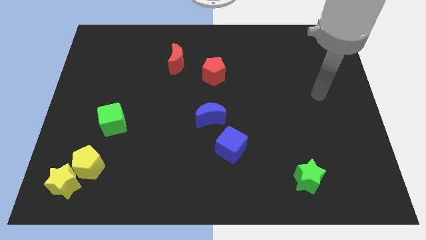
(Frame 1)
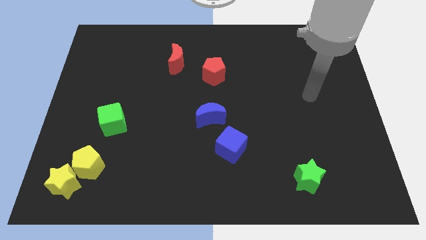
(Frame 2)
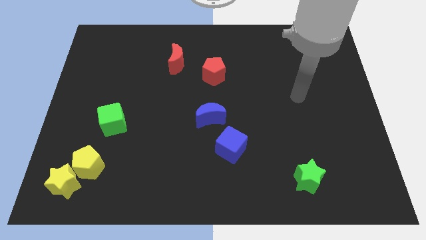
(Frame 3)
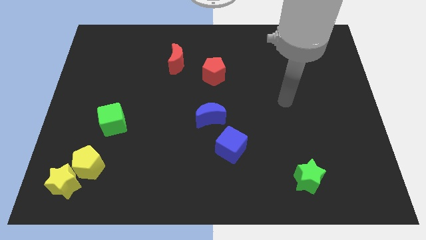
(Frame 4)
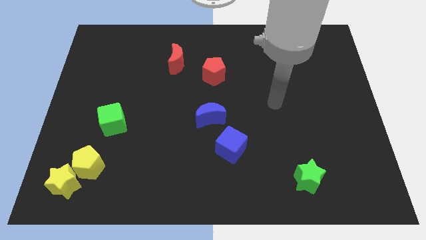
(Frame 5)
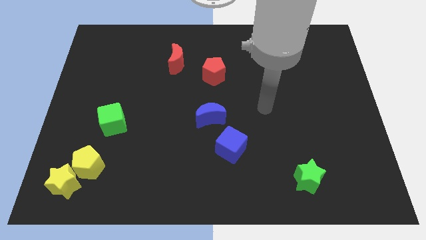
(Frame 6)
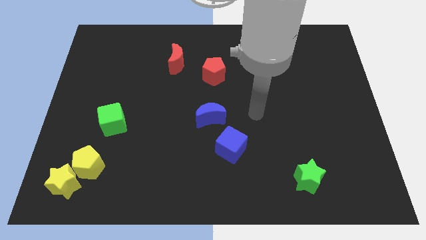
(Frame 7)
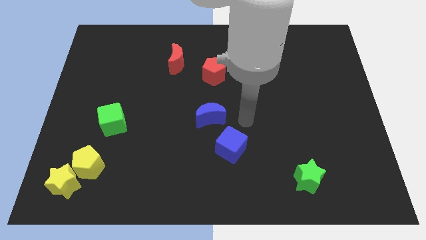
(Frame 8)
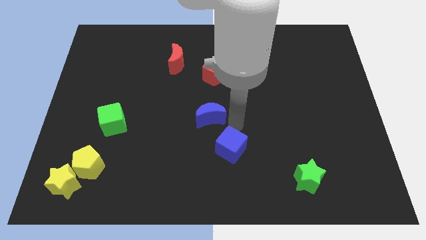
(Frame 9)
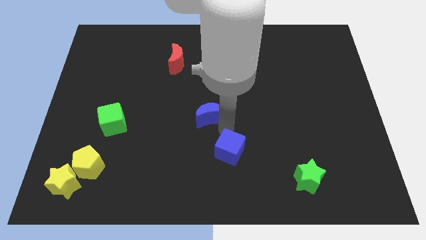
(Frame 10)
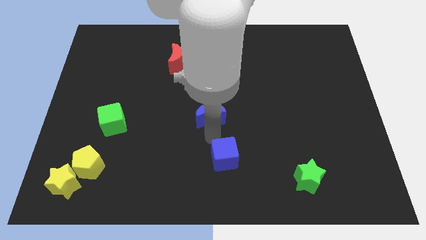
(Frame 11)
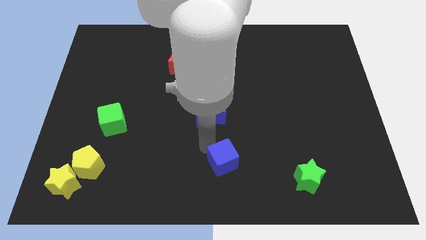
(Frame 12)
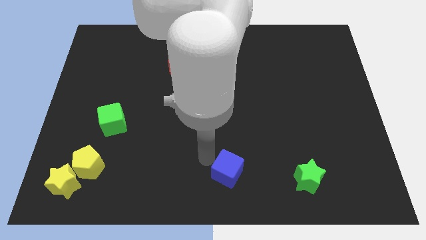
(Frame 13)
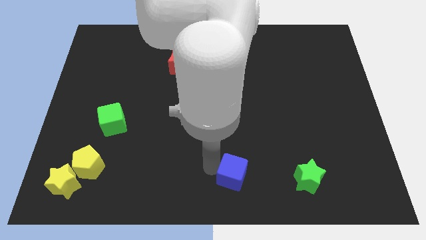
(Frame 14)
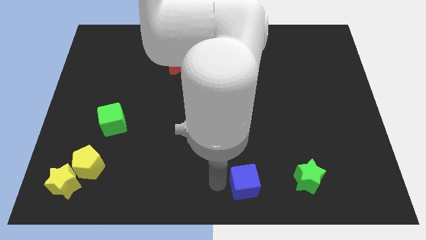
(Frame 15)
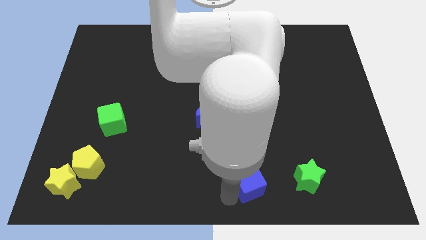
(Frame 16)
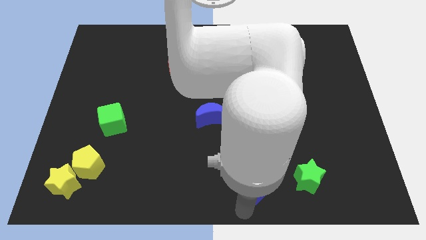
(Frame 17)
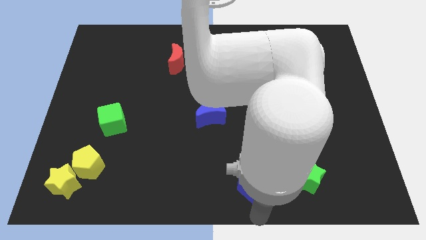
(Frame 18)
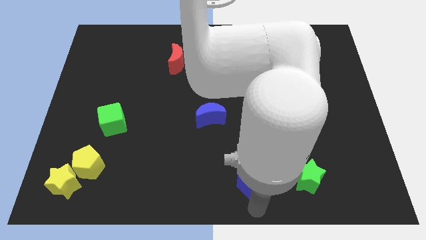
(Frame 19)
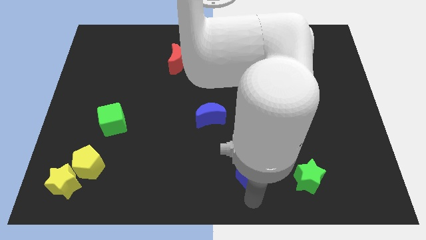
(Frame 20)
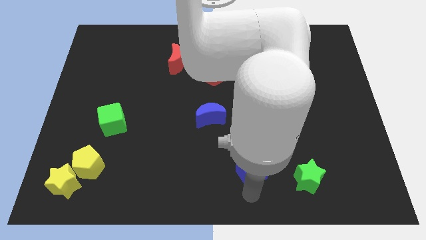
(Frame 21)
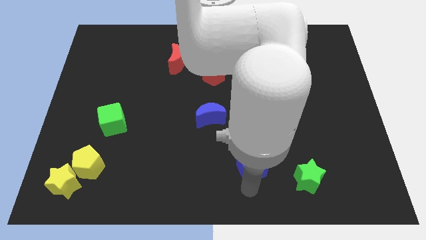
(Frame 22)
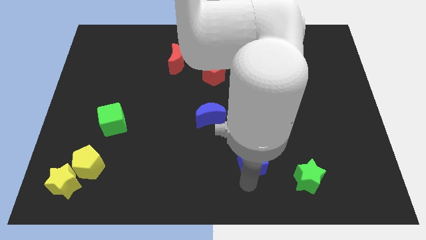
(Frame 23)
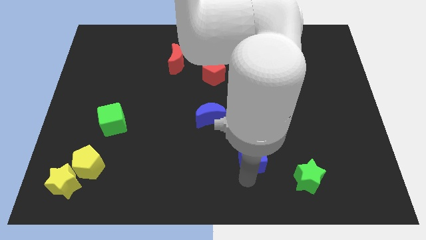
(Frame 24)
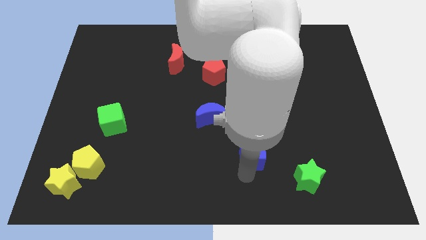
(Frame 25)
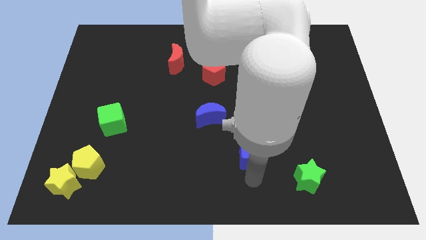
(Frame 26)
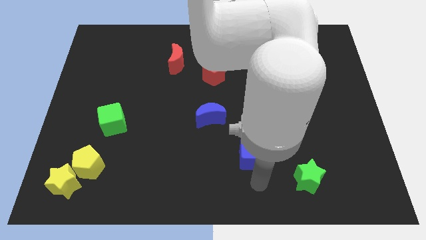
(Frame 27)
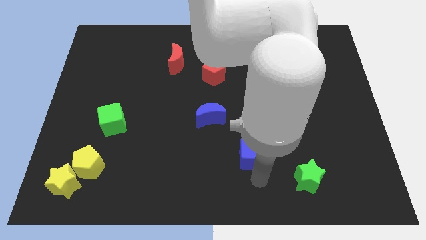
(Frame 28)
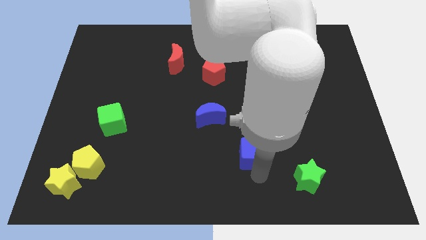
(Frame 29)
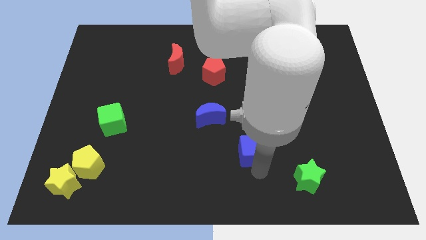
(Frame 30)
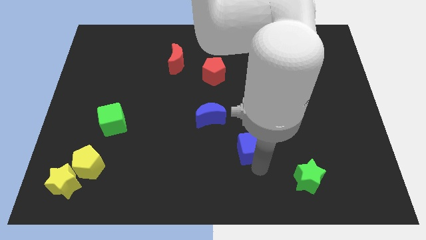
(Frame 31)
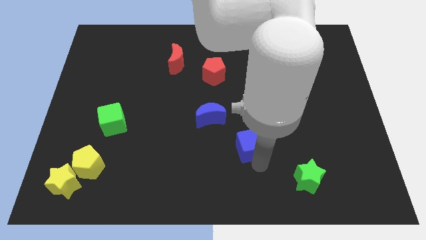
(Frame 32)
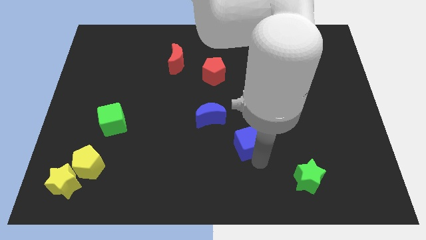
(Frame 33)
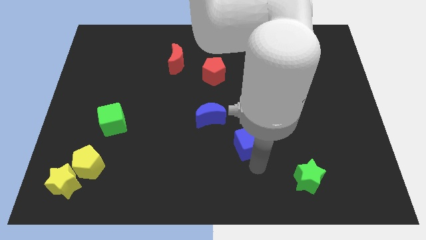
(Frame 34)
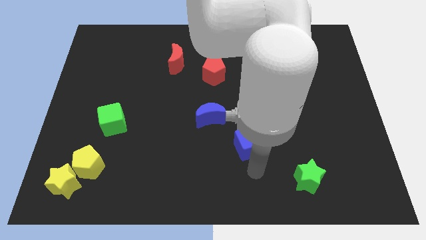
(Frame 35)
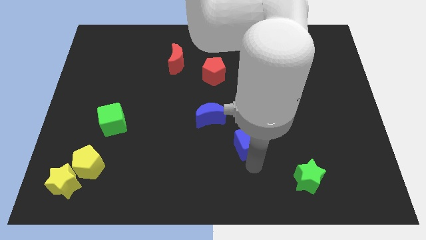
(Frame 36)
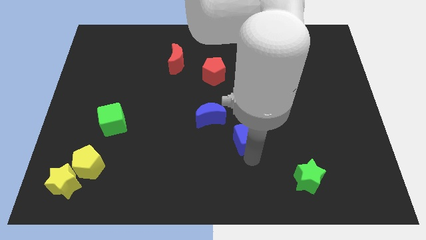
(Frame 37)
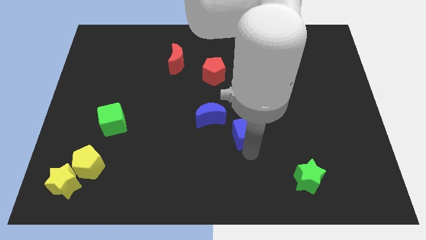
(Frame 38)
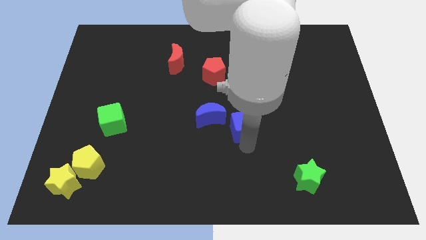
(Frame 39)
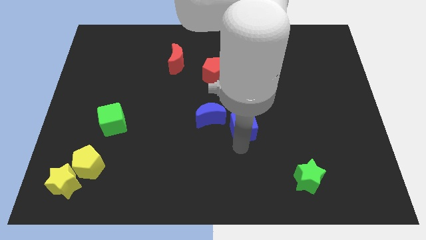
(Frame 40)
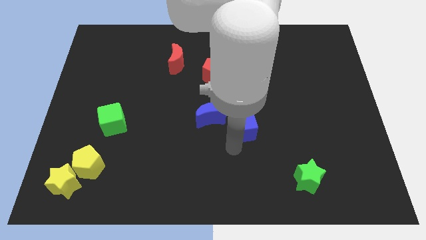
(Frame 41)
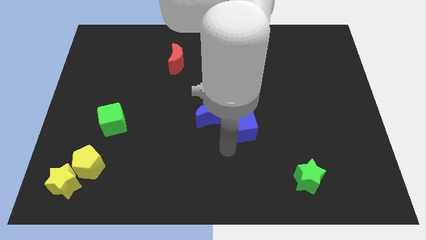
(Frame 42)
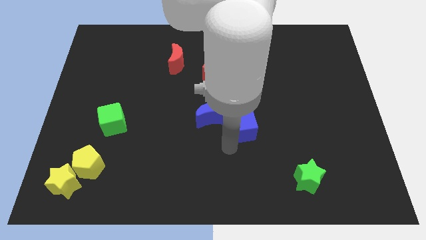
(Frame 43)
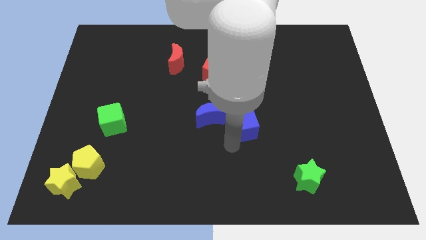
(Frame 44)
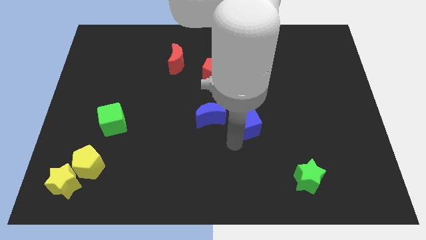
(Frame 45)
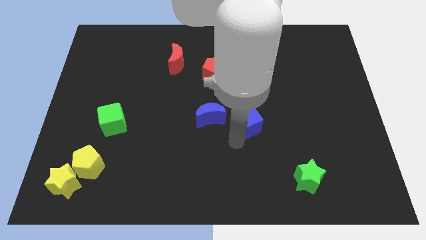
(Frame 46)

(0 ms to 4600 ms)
push the blue cube diagonally upwards and to the right slightly

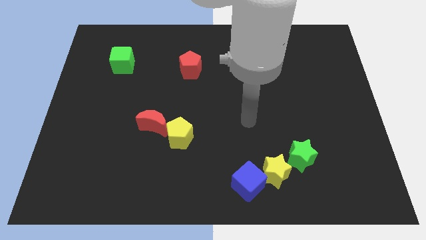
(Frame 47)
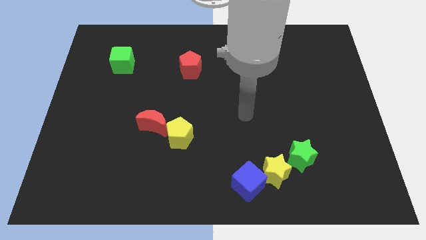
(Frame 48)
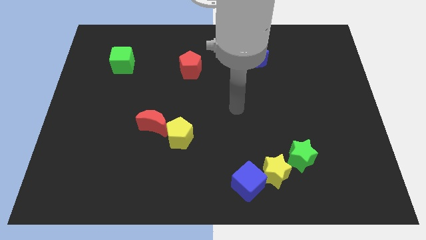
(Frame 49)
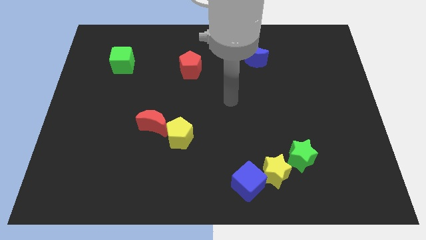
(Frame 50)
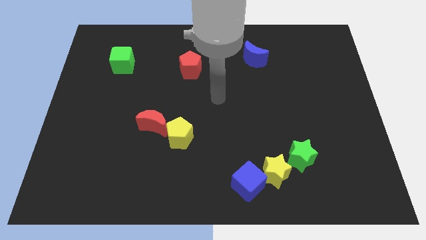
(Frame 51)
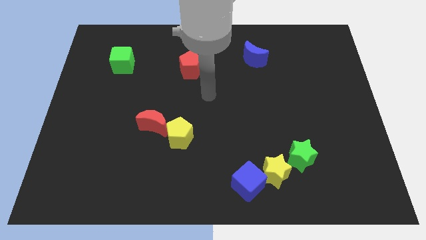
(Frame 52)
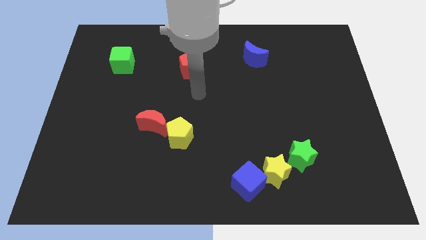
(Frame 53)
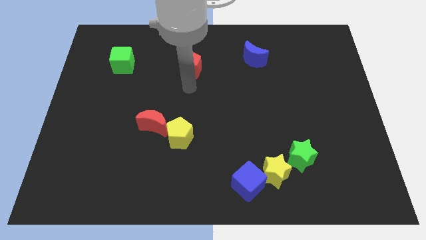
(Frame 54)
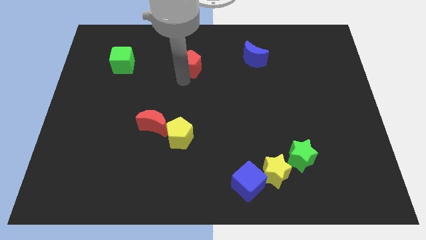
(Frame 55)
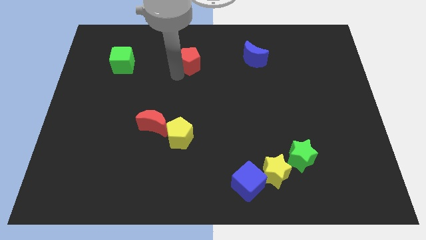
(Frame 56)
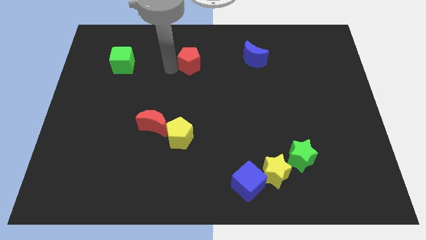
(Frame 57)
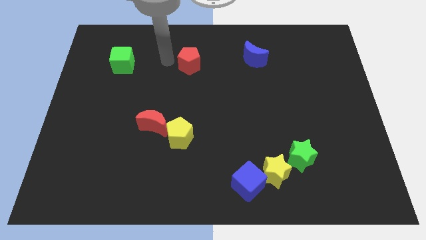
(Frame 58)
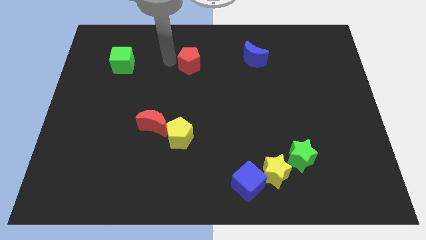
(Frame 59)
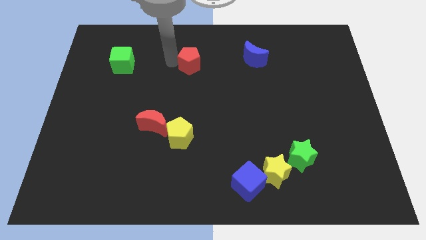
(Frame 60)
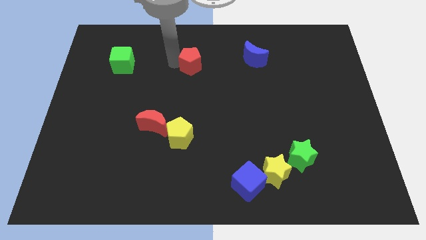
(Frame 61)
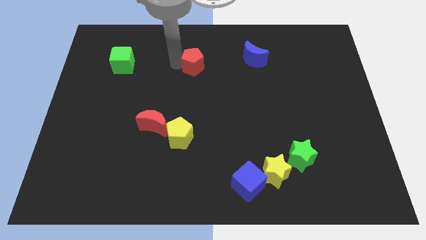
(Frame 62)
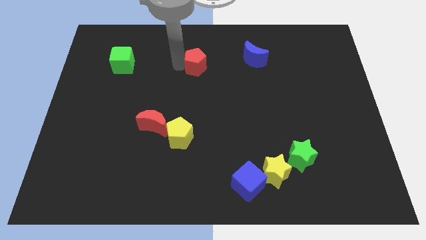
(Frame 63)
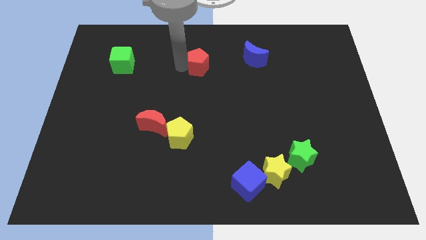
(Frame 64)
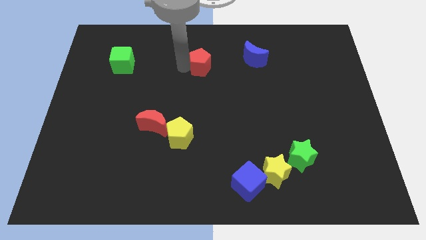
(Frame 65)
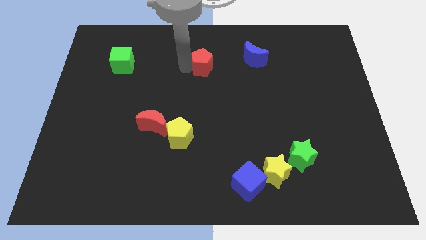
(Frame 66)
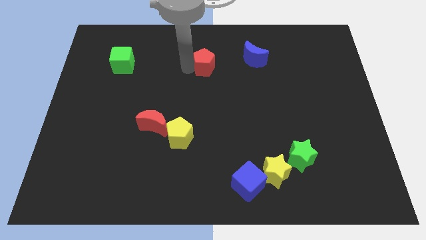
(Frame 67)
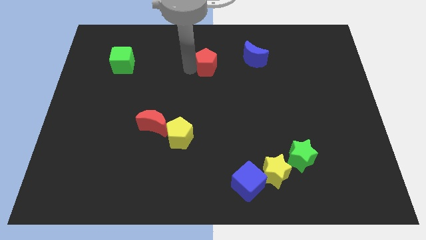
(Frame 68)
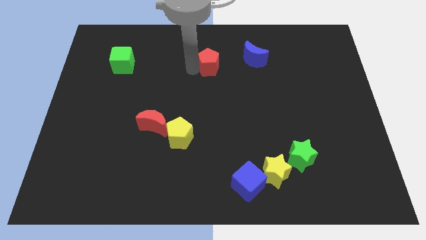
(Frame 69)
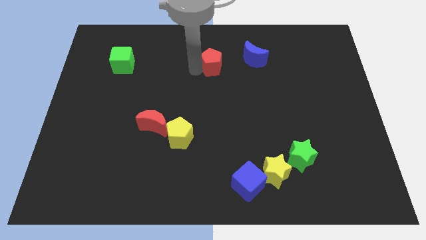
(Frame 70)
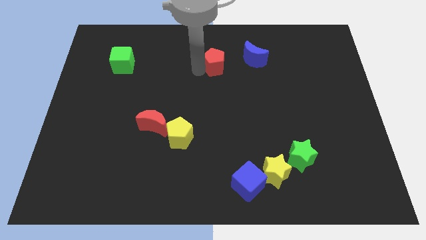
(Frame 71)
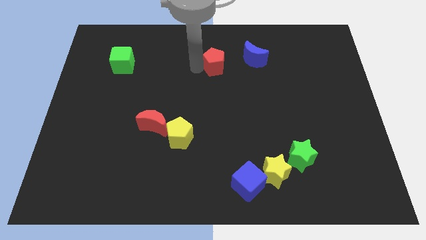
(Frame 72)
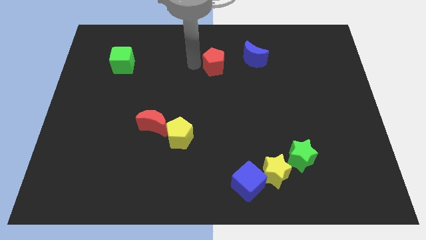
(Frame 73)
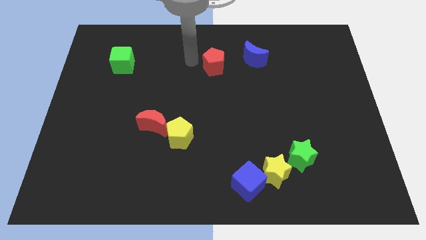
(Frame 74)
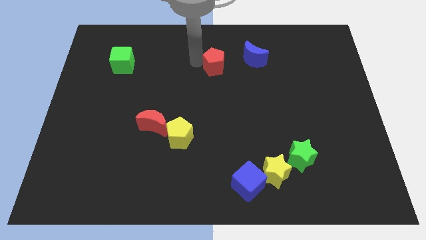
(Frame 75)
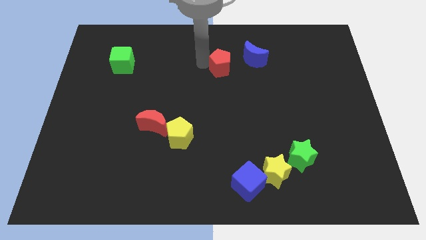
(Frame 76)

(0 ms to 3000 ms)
push the red pentagon to the right a little bit

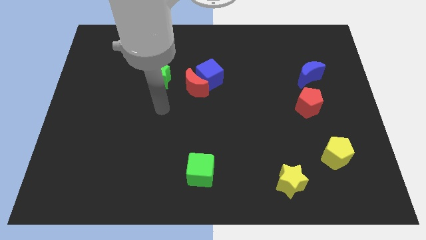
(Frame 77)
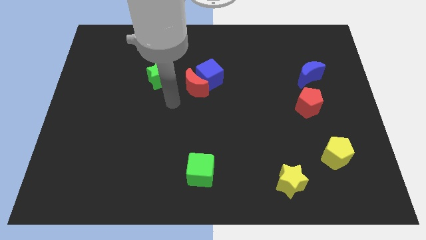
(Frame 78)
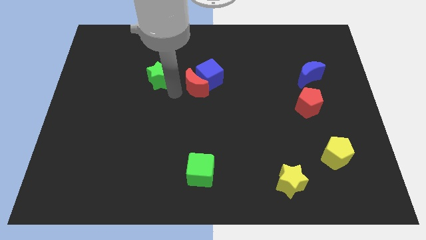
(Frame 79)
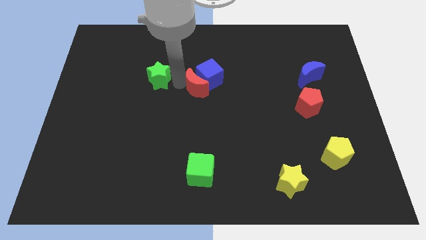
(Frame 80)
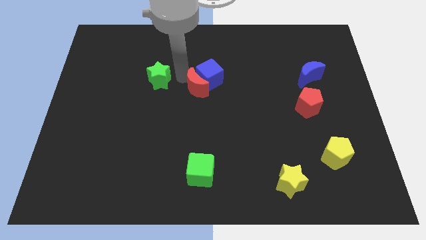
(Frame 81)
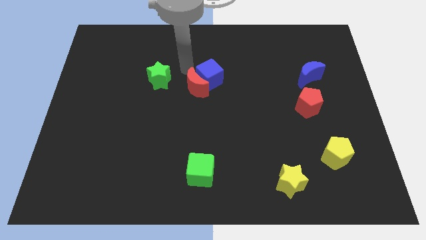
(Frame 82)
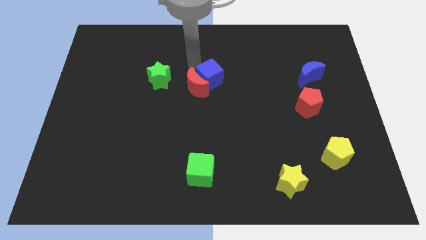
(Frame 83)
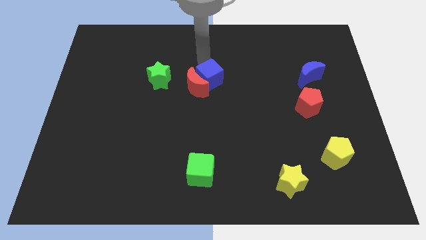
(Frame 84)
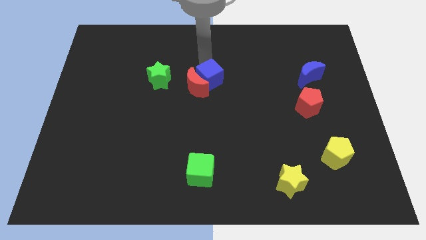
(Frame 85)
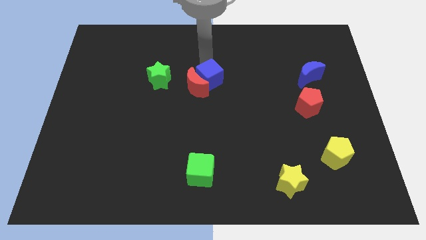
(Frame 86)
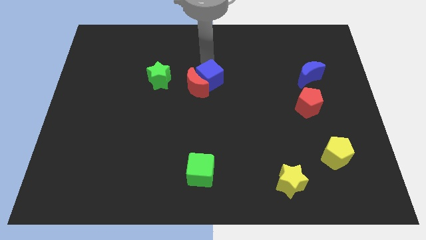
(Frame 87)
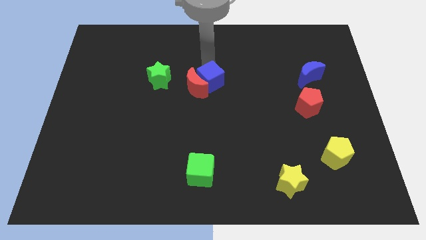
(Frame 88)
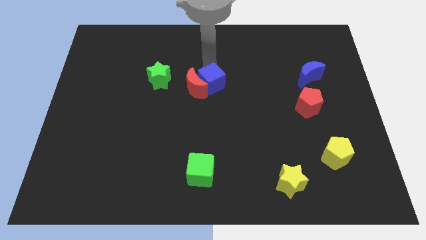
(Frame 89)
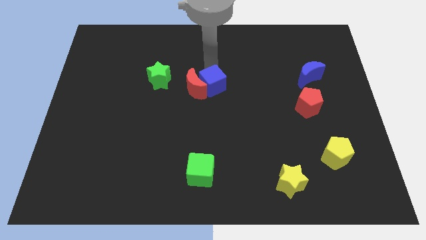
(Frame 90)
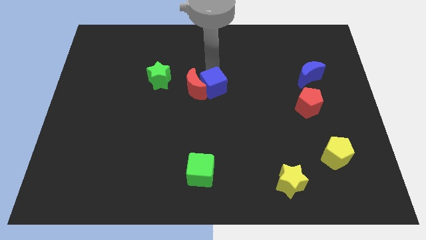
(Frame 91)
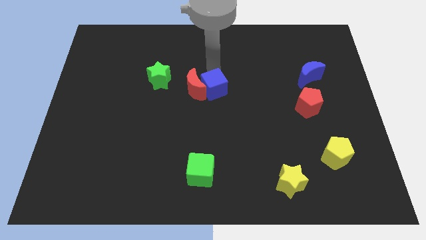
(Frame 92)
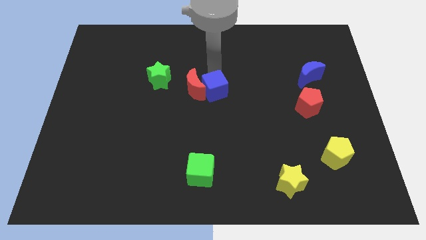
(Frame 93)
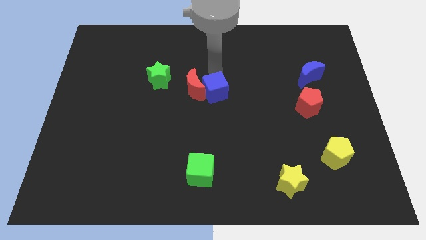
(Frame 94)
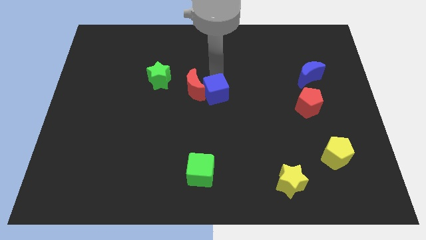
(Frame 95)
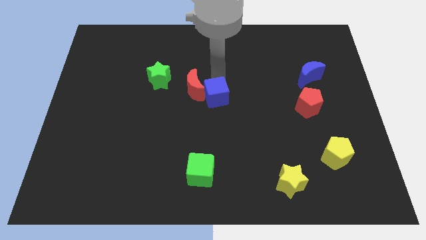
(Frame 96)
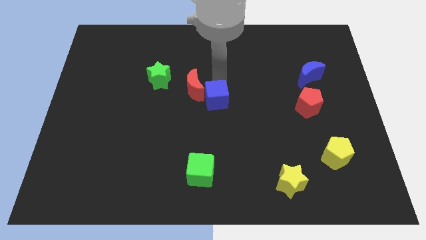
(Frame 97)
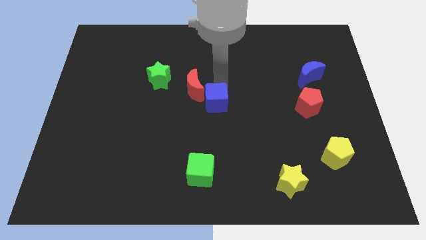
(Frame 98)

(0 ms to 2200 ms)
move the blue cube slightly downwards
